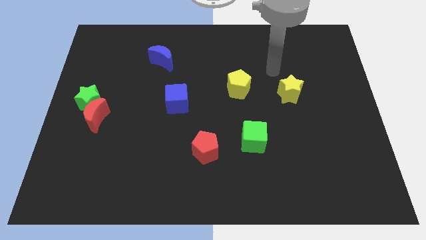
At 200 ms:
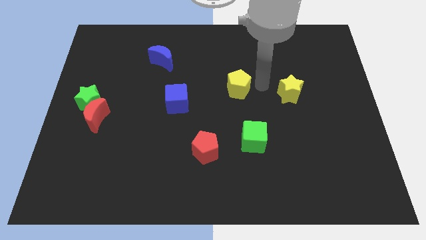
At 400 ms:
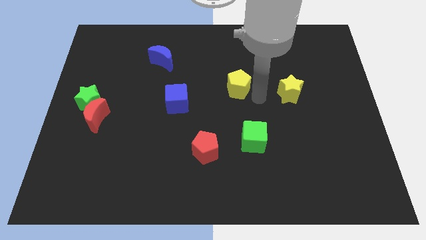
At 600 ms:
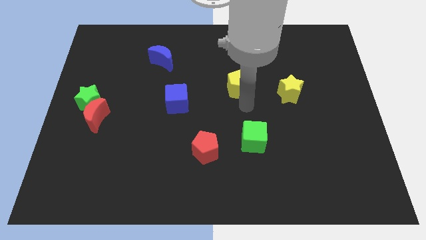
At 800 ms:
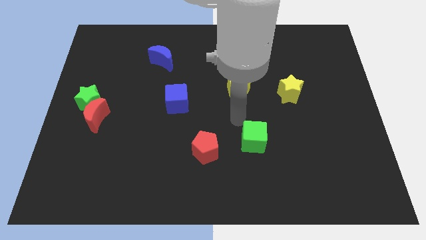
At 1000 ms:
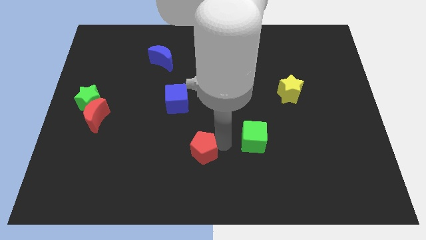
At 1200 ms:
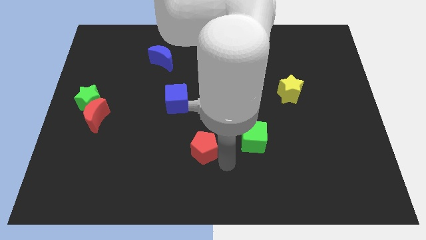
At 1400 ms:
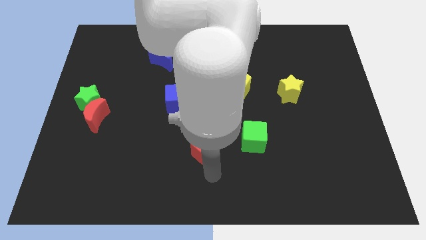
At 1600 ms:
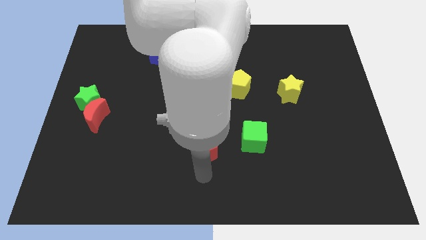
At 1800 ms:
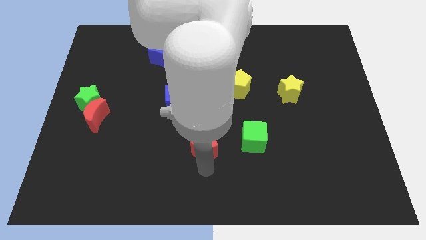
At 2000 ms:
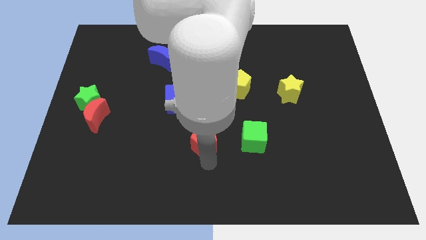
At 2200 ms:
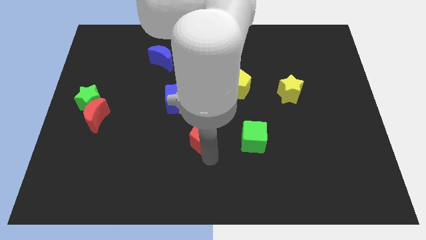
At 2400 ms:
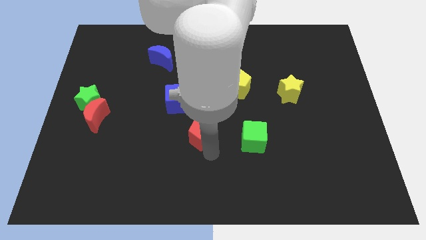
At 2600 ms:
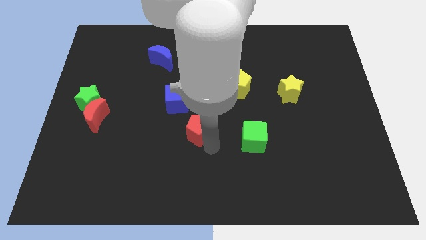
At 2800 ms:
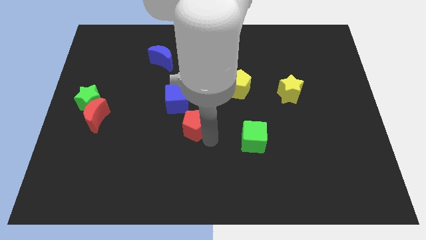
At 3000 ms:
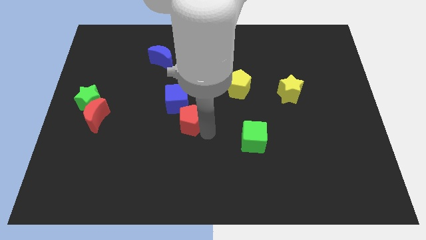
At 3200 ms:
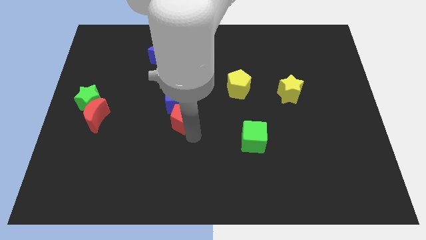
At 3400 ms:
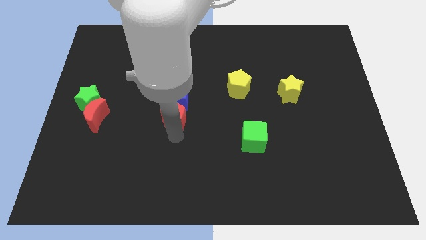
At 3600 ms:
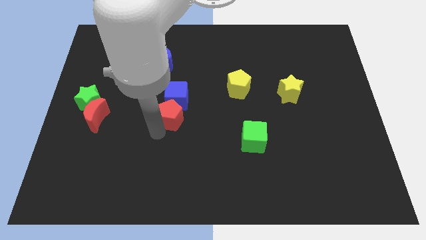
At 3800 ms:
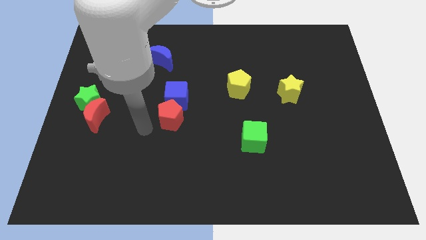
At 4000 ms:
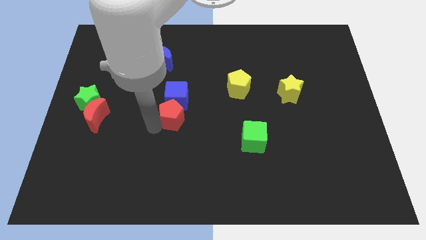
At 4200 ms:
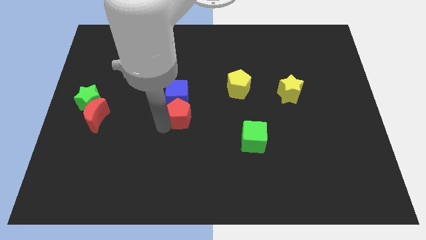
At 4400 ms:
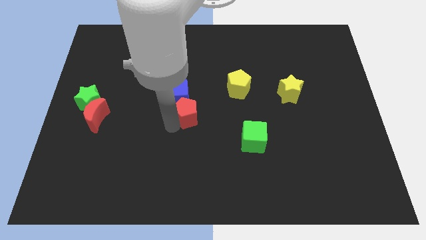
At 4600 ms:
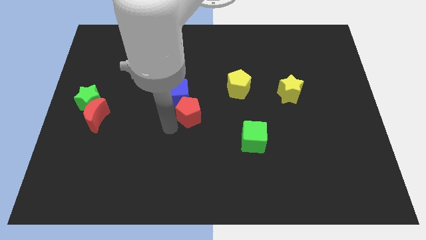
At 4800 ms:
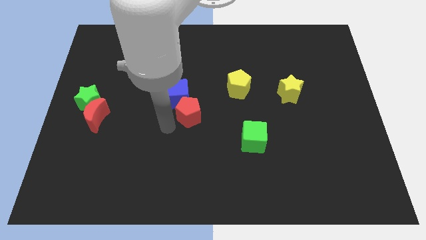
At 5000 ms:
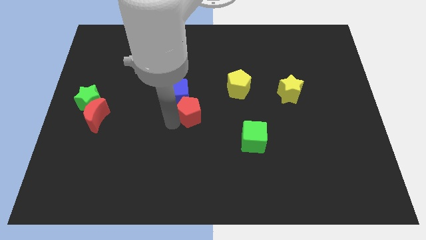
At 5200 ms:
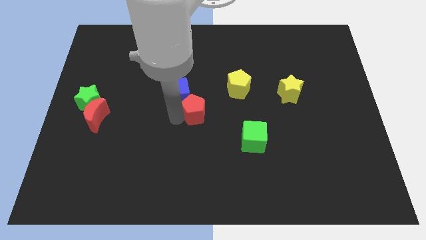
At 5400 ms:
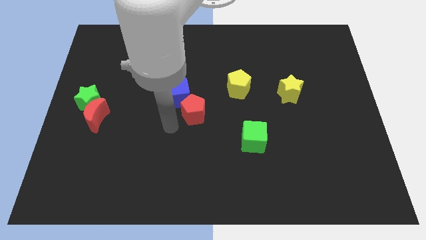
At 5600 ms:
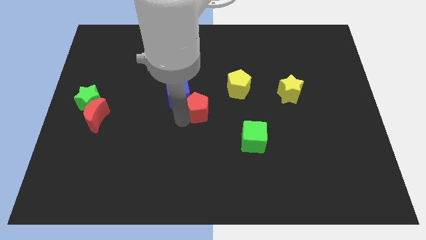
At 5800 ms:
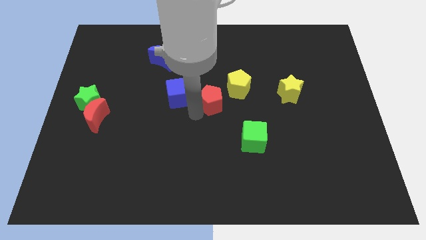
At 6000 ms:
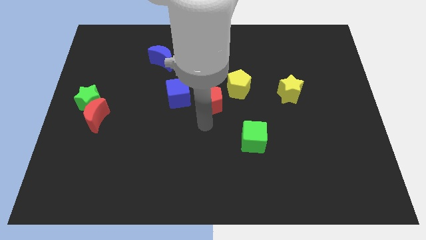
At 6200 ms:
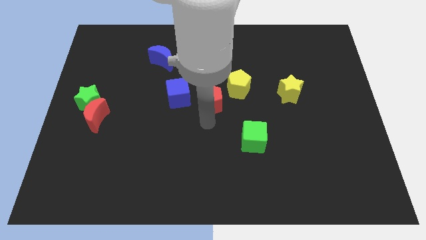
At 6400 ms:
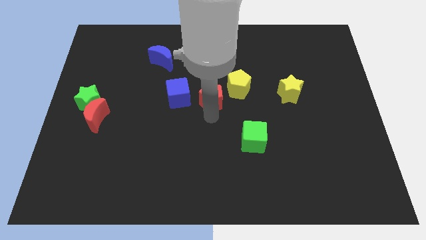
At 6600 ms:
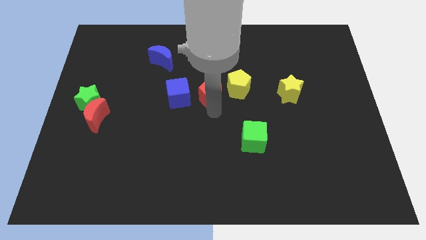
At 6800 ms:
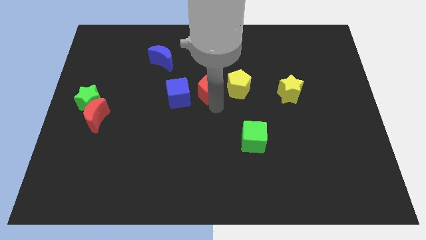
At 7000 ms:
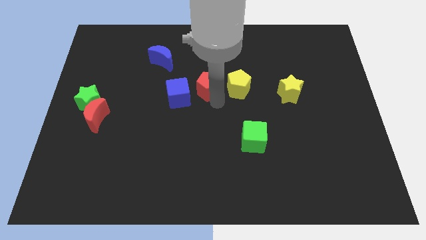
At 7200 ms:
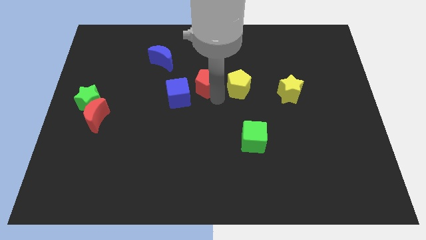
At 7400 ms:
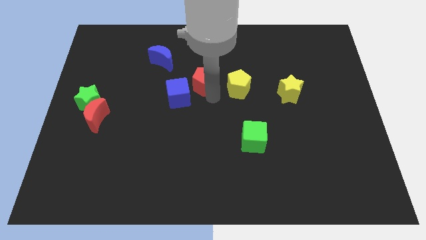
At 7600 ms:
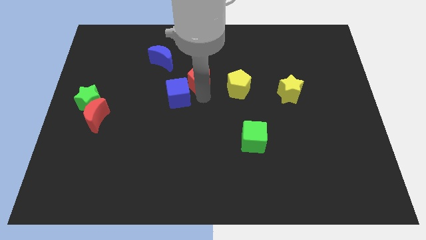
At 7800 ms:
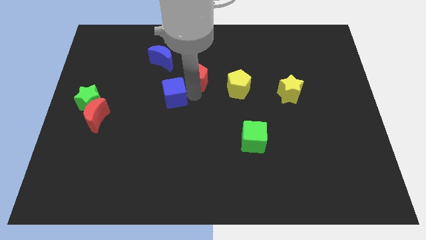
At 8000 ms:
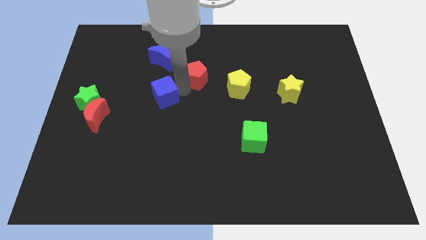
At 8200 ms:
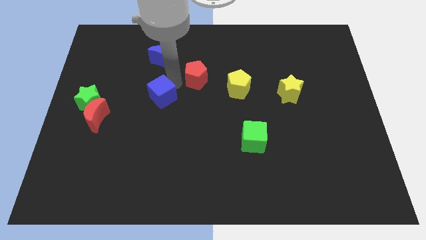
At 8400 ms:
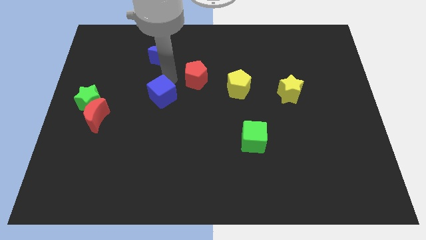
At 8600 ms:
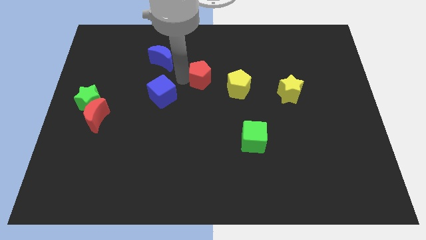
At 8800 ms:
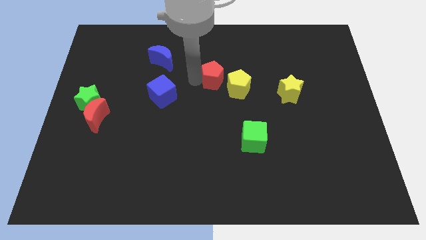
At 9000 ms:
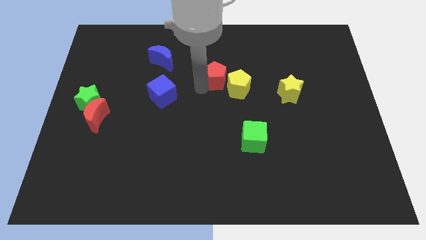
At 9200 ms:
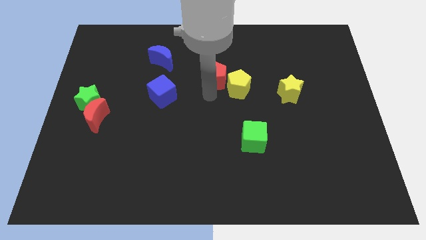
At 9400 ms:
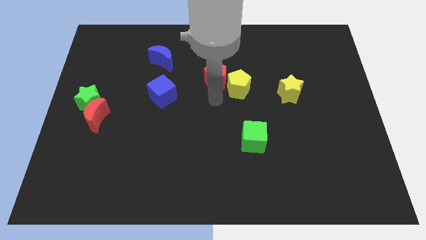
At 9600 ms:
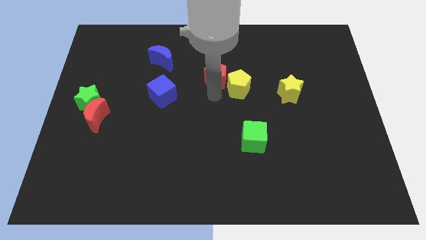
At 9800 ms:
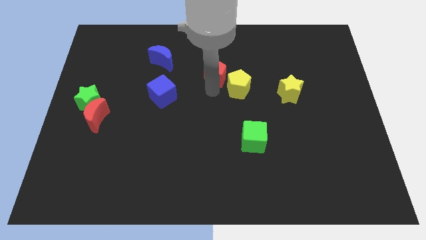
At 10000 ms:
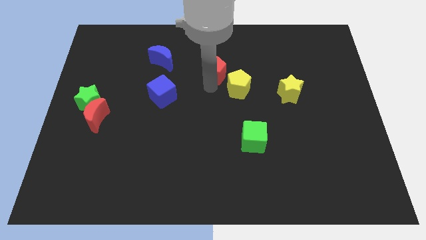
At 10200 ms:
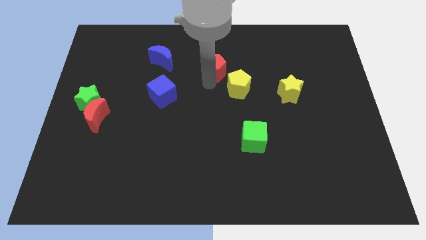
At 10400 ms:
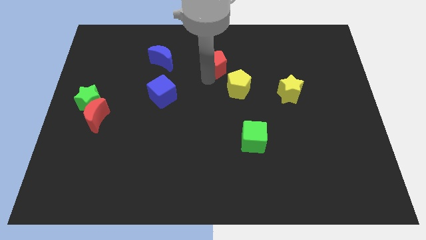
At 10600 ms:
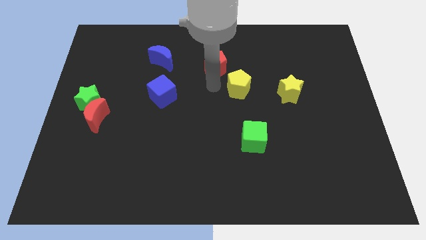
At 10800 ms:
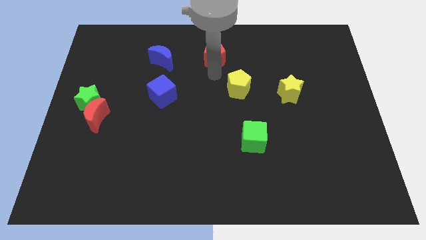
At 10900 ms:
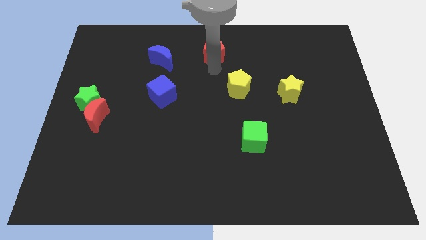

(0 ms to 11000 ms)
slide the red pentagon to the top

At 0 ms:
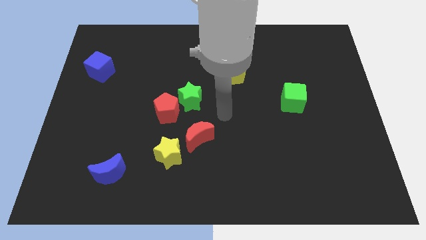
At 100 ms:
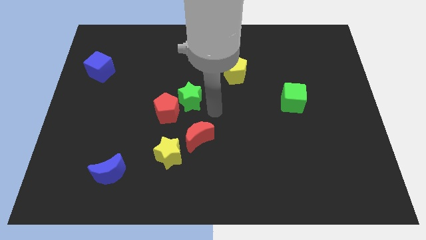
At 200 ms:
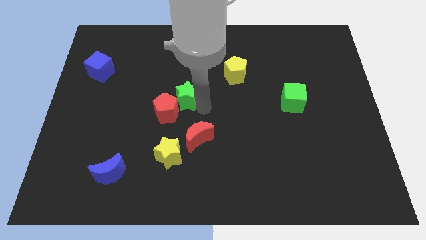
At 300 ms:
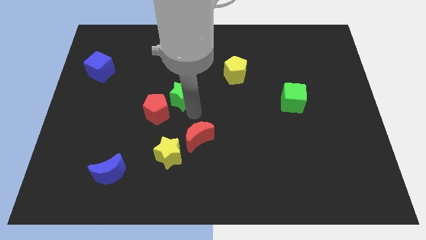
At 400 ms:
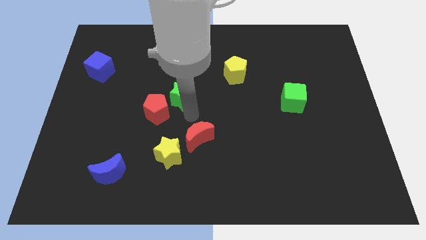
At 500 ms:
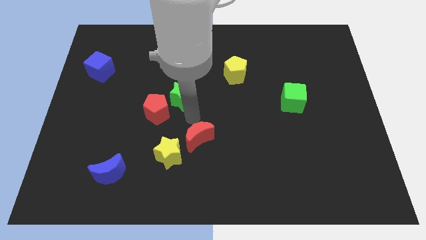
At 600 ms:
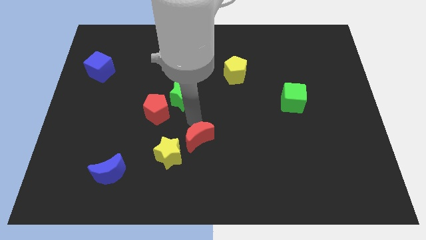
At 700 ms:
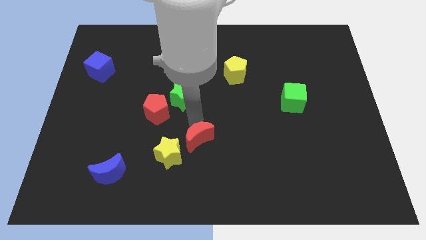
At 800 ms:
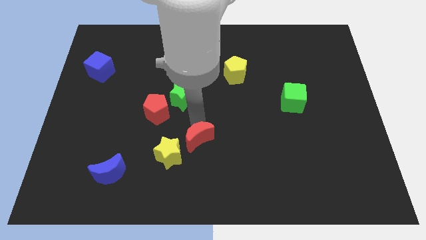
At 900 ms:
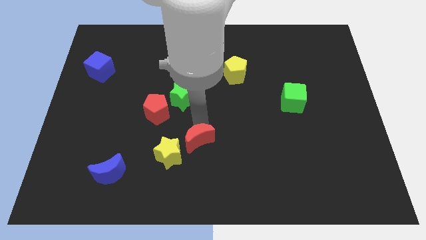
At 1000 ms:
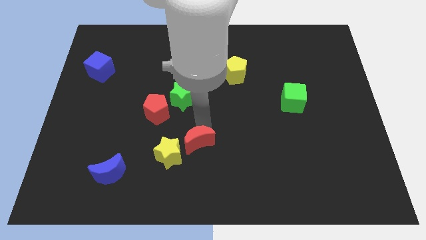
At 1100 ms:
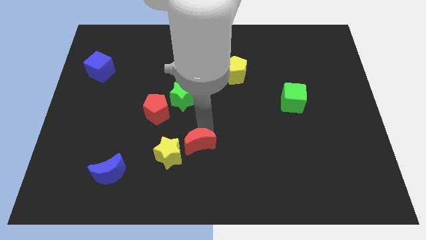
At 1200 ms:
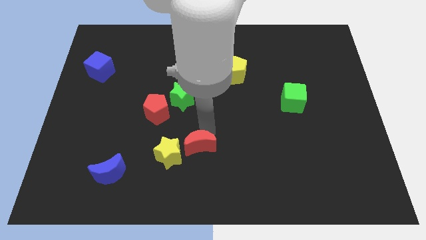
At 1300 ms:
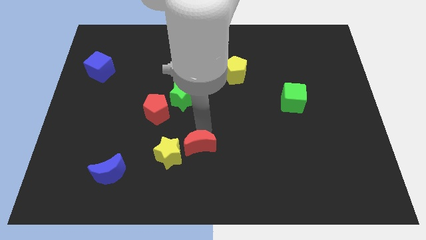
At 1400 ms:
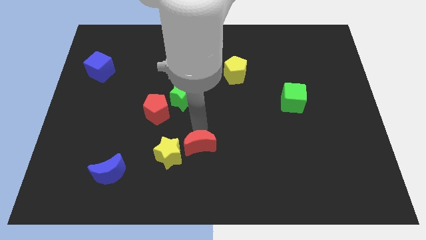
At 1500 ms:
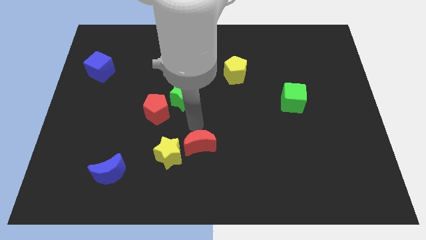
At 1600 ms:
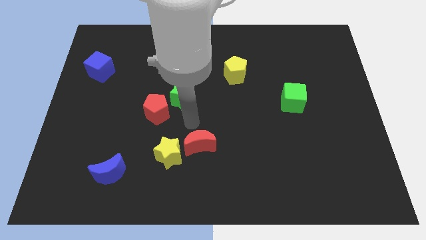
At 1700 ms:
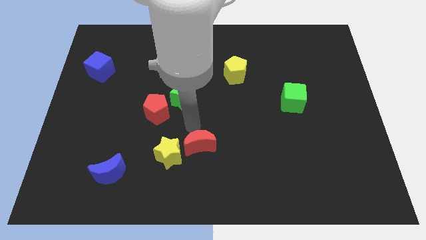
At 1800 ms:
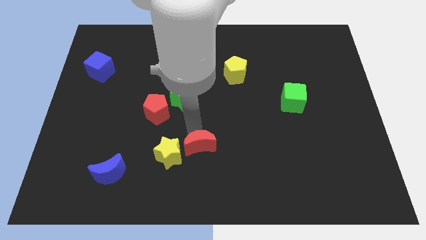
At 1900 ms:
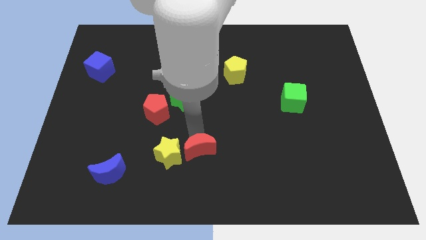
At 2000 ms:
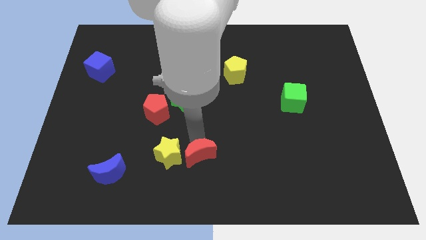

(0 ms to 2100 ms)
push the red moon to the bottom
